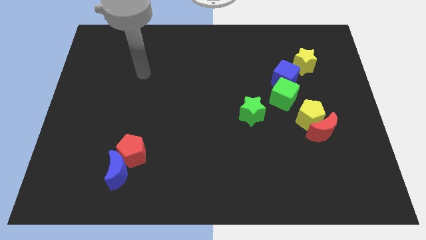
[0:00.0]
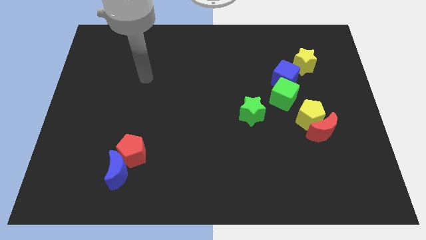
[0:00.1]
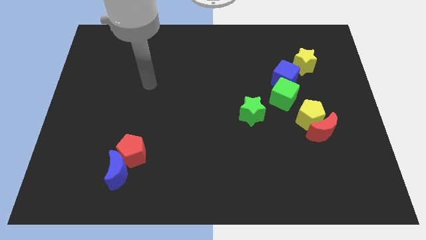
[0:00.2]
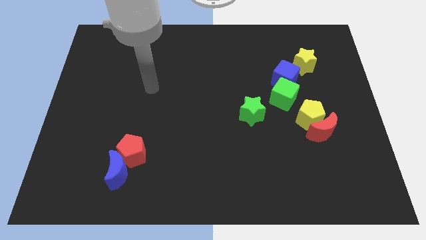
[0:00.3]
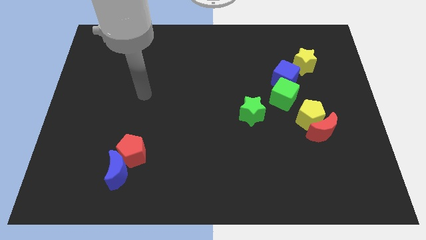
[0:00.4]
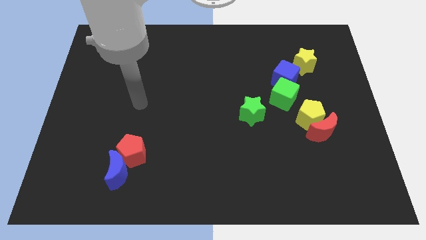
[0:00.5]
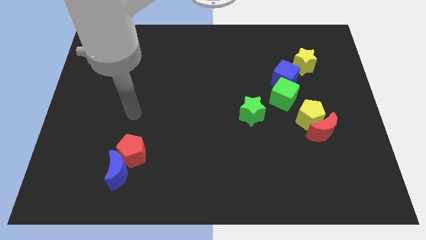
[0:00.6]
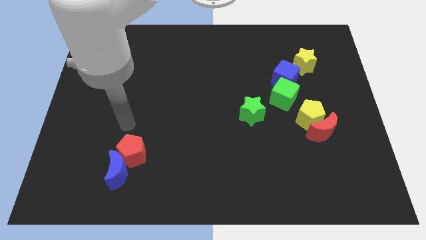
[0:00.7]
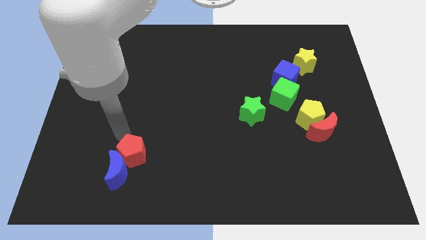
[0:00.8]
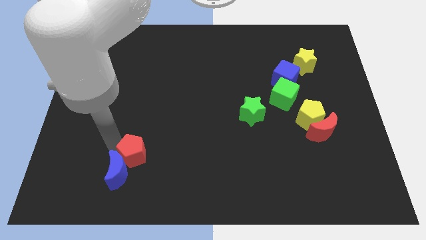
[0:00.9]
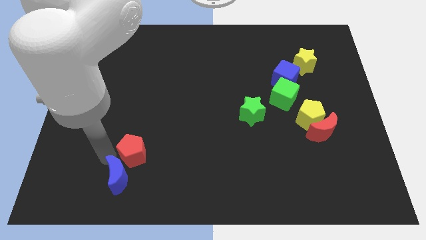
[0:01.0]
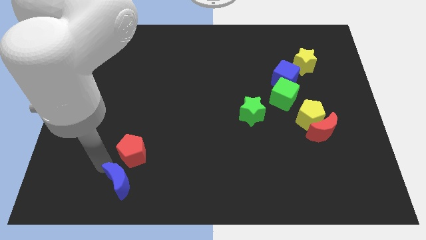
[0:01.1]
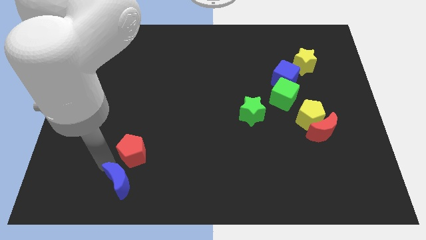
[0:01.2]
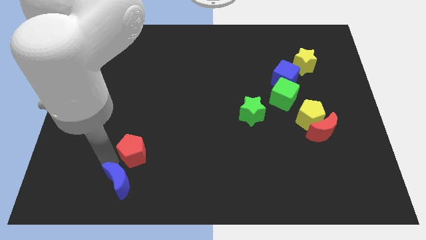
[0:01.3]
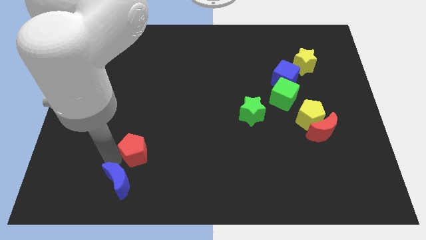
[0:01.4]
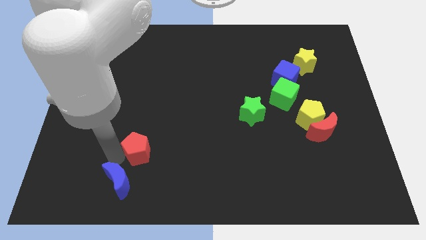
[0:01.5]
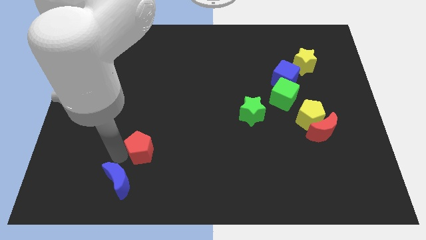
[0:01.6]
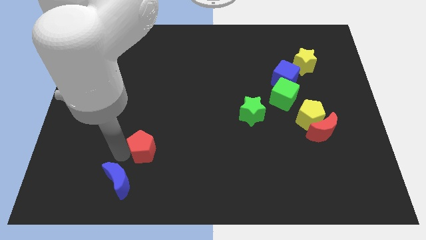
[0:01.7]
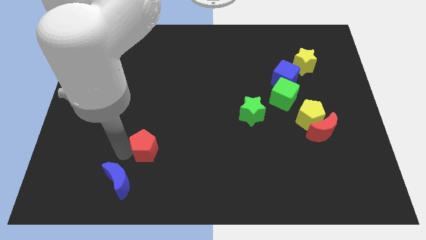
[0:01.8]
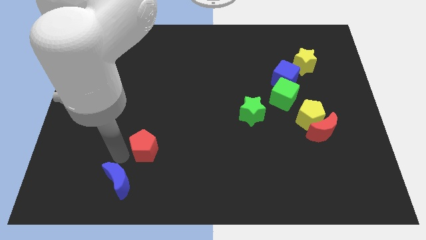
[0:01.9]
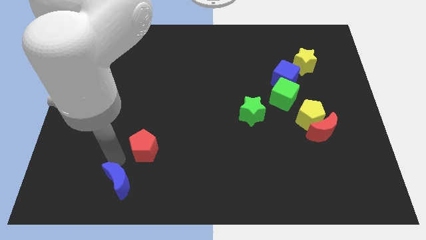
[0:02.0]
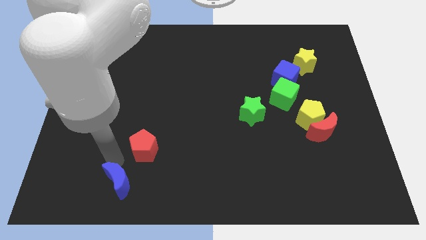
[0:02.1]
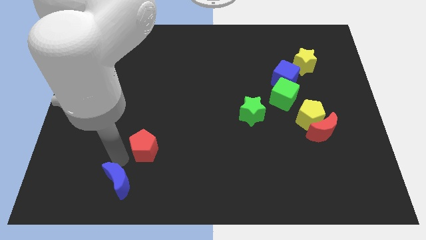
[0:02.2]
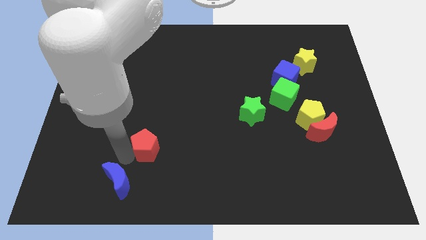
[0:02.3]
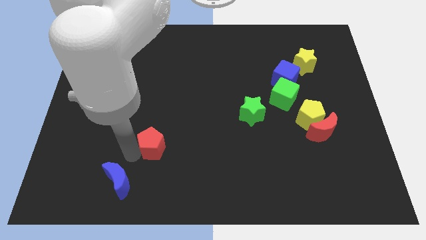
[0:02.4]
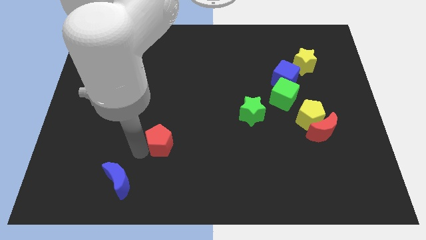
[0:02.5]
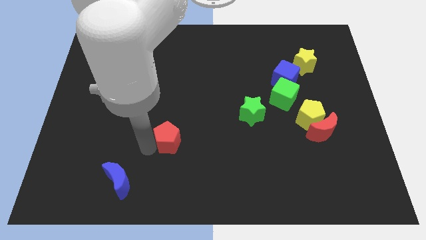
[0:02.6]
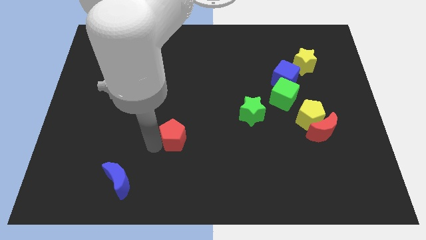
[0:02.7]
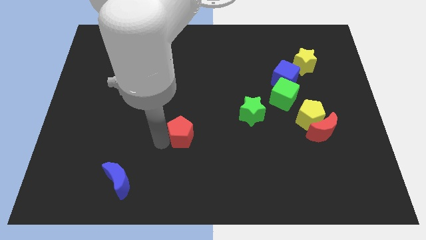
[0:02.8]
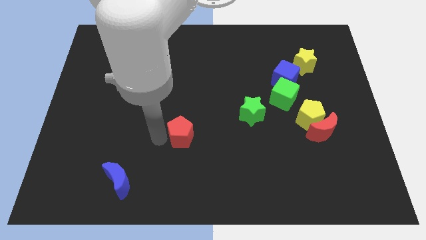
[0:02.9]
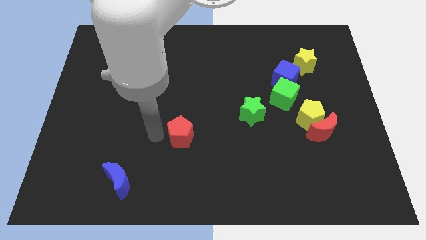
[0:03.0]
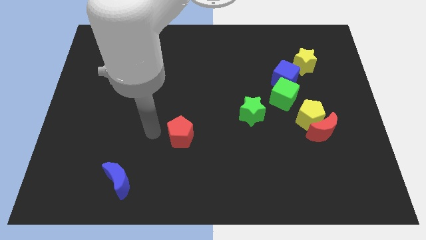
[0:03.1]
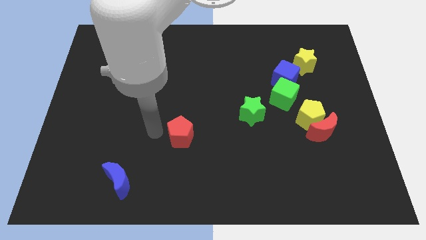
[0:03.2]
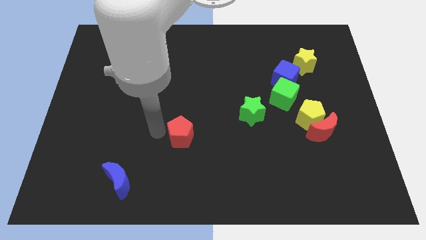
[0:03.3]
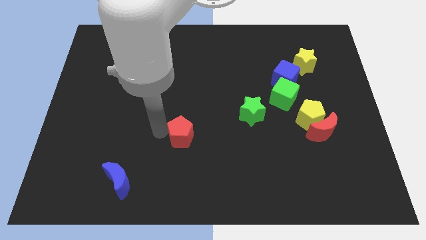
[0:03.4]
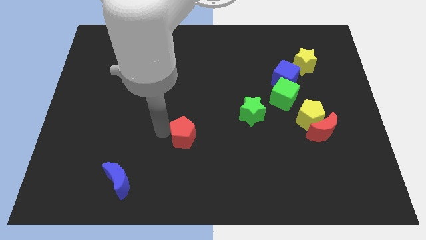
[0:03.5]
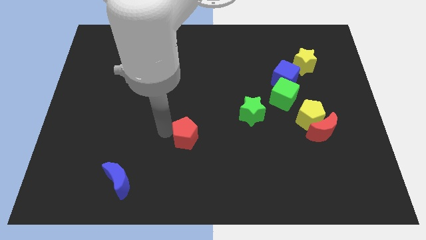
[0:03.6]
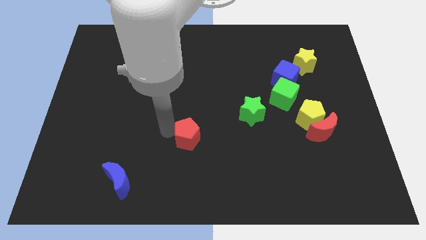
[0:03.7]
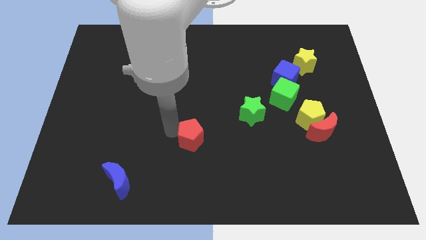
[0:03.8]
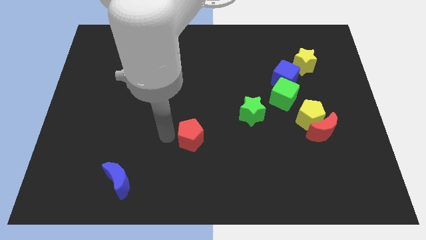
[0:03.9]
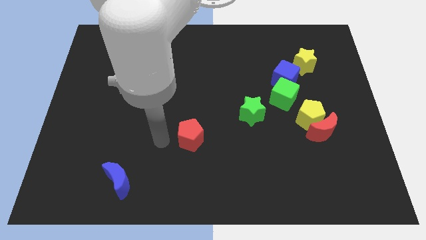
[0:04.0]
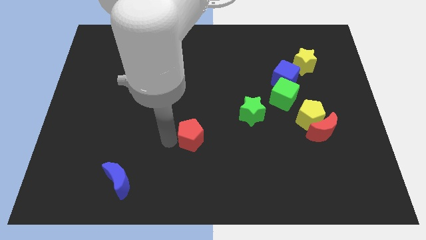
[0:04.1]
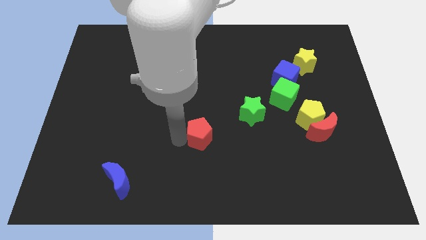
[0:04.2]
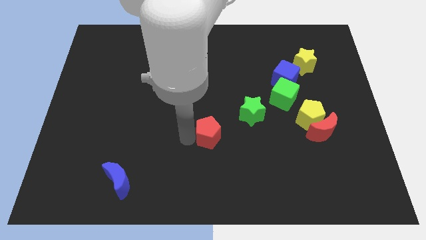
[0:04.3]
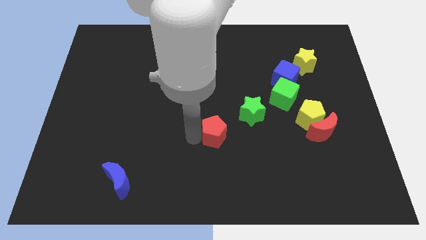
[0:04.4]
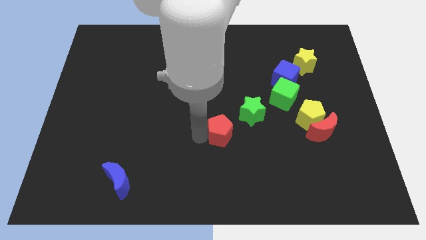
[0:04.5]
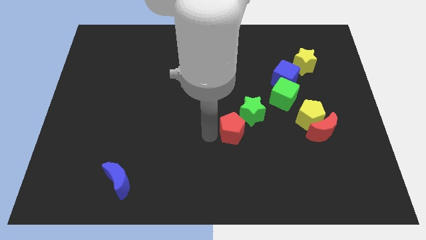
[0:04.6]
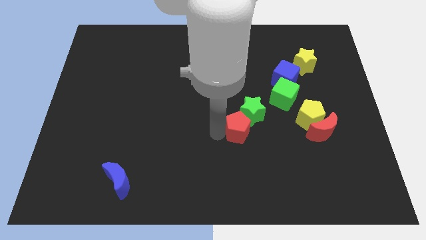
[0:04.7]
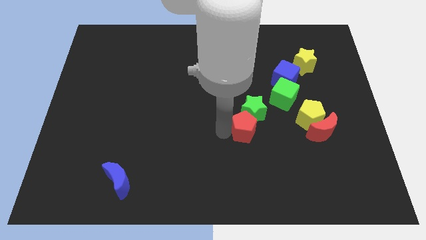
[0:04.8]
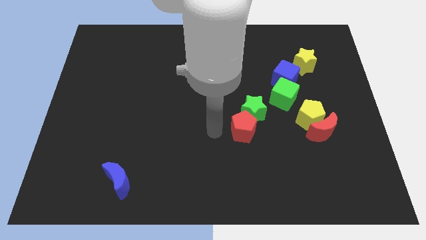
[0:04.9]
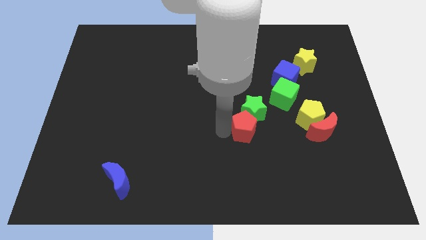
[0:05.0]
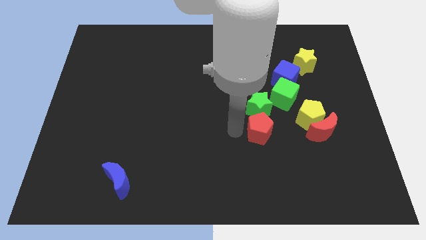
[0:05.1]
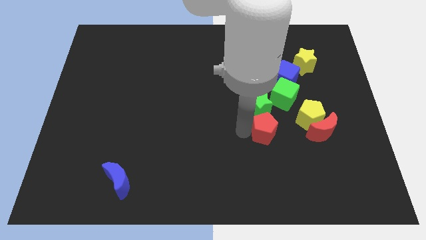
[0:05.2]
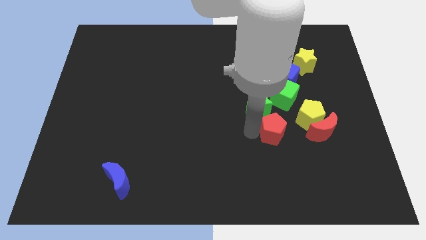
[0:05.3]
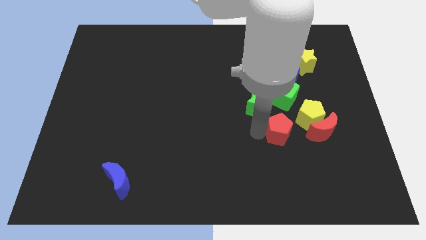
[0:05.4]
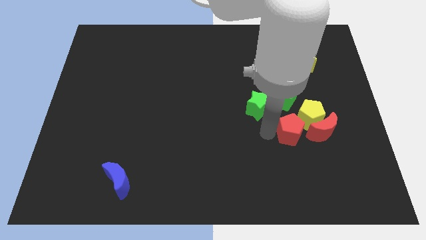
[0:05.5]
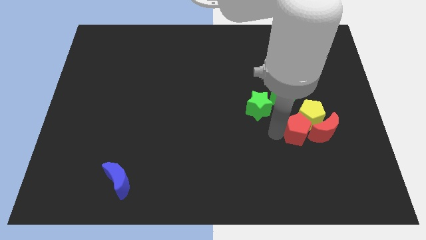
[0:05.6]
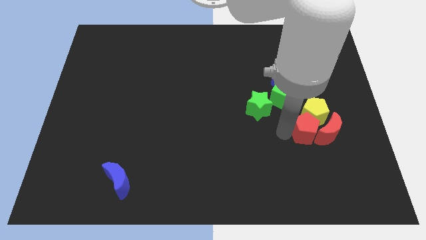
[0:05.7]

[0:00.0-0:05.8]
move the red pentagon close to the red moon
